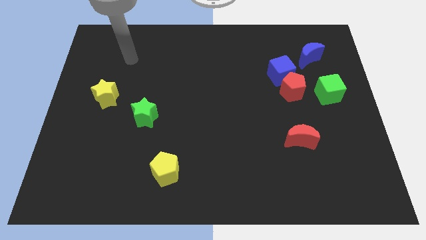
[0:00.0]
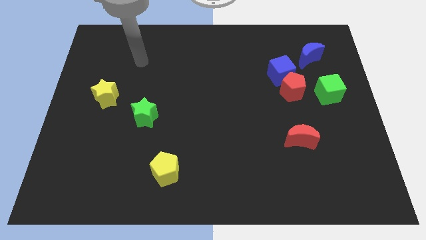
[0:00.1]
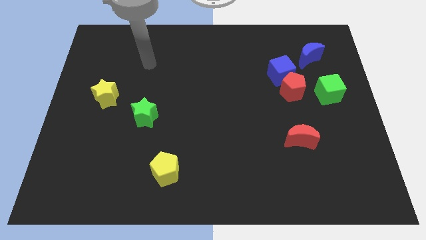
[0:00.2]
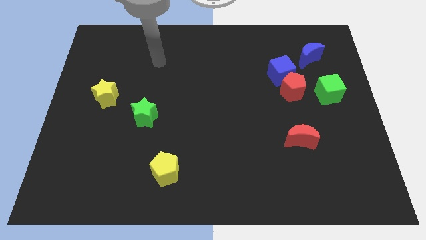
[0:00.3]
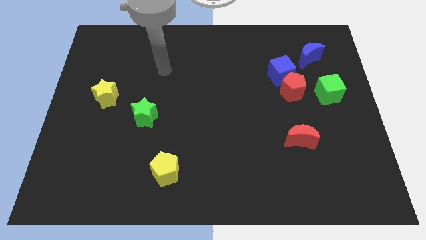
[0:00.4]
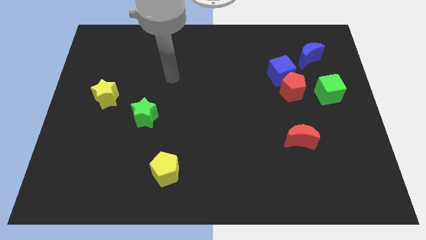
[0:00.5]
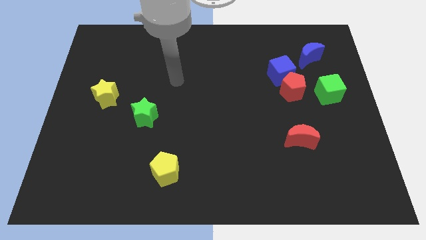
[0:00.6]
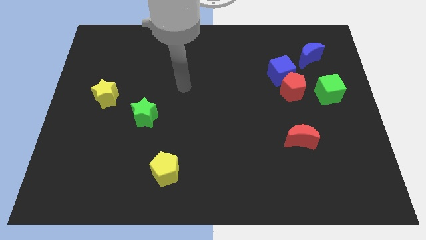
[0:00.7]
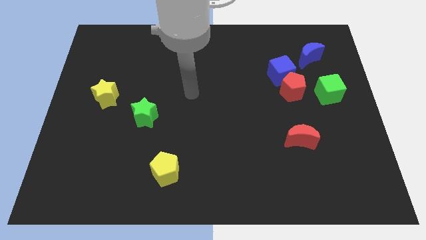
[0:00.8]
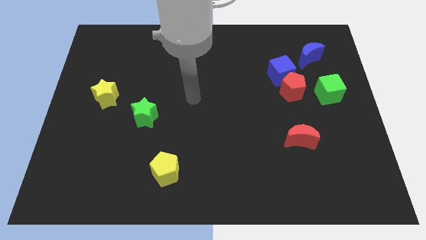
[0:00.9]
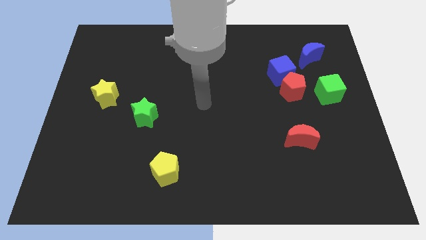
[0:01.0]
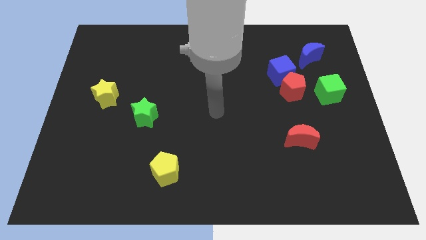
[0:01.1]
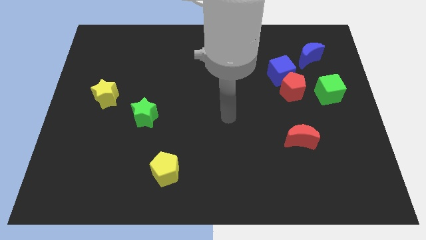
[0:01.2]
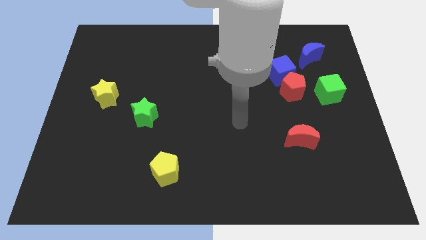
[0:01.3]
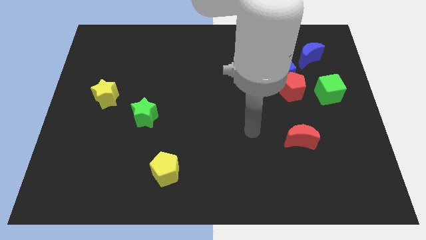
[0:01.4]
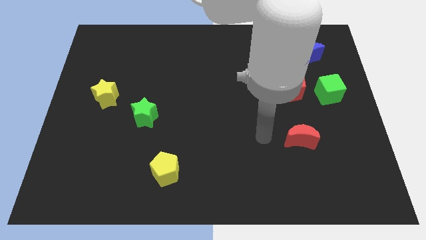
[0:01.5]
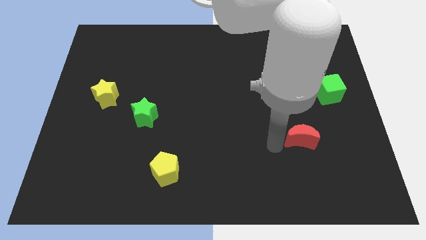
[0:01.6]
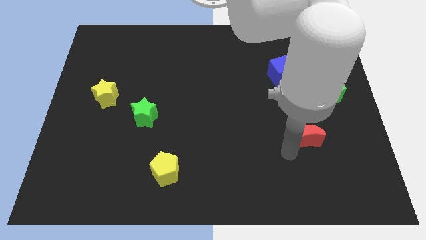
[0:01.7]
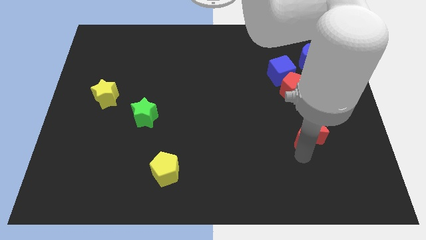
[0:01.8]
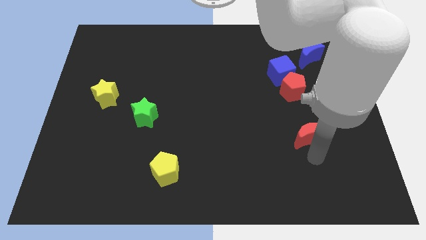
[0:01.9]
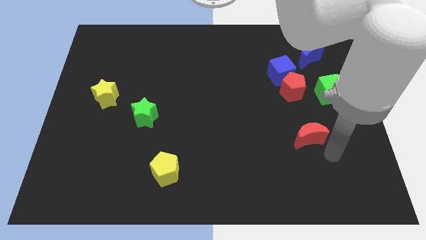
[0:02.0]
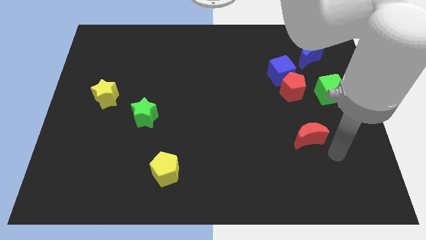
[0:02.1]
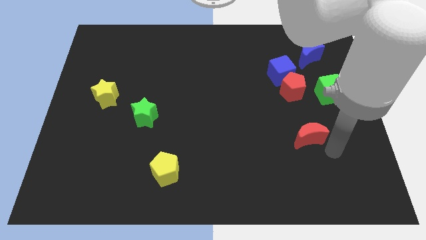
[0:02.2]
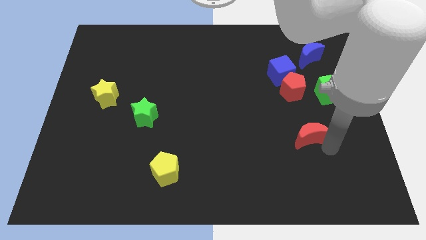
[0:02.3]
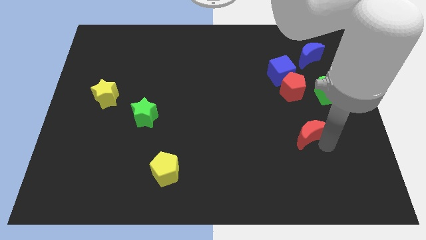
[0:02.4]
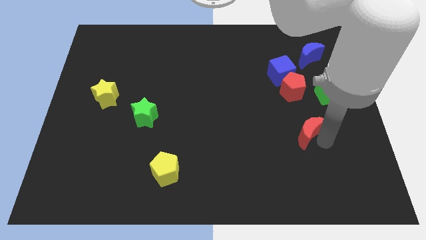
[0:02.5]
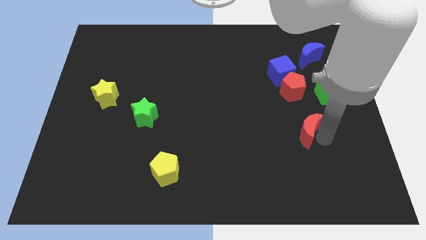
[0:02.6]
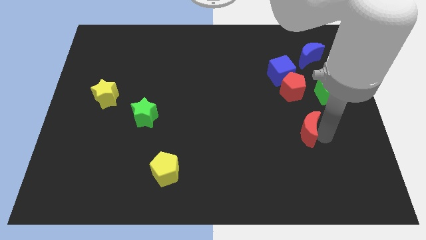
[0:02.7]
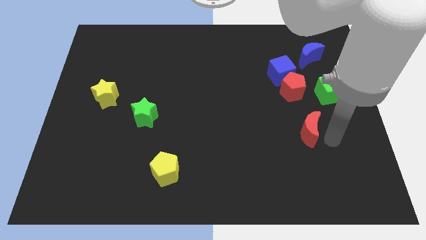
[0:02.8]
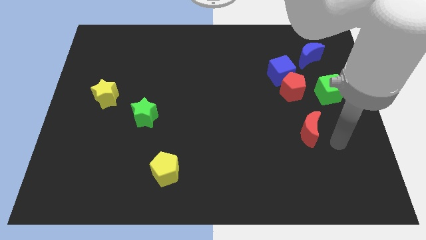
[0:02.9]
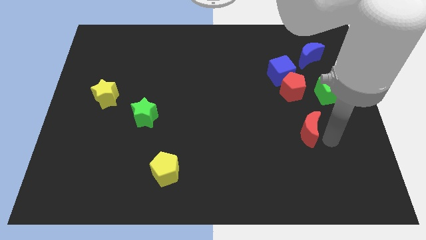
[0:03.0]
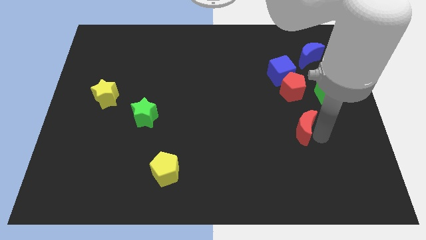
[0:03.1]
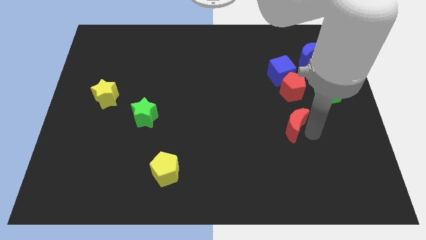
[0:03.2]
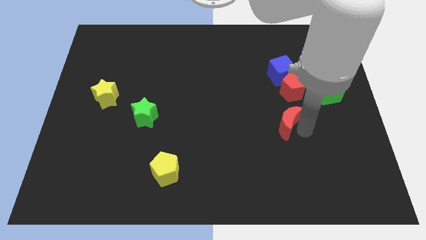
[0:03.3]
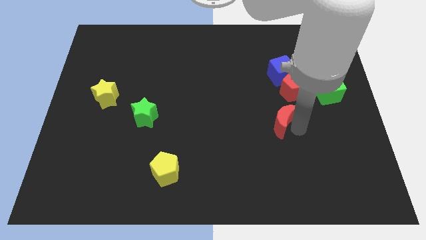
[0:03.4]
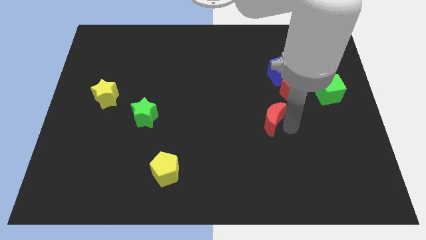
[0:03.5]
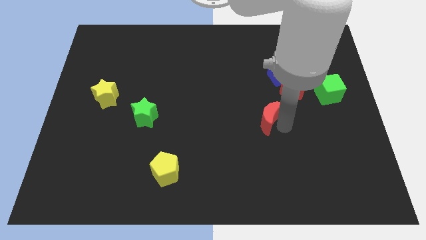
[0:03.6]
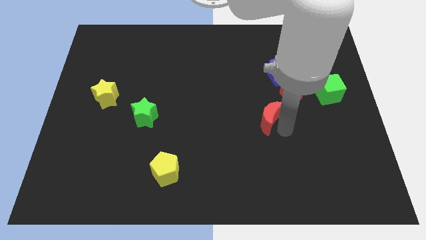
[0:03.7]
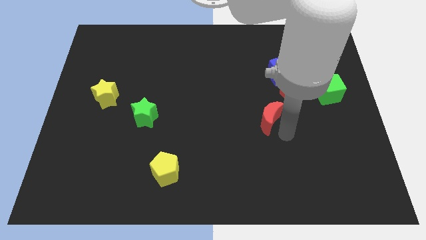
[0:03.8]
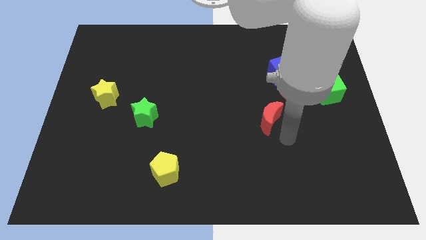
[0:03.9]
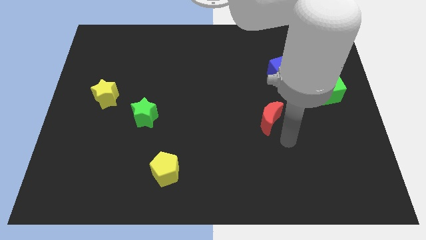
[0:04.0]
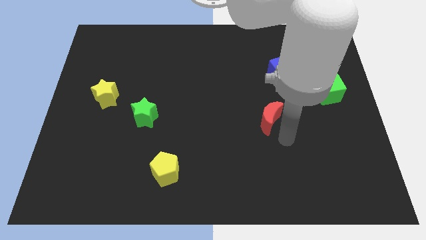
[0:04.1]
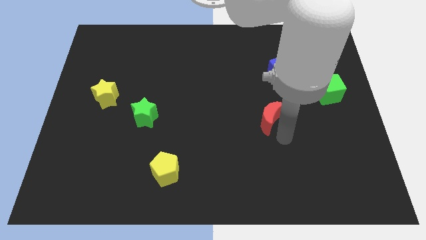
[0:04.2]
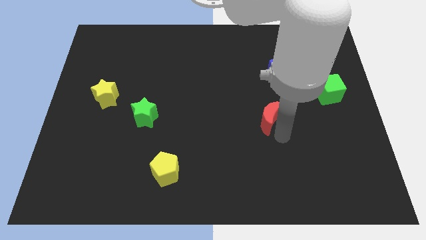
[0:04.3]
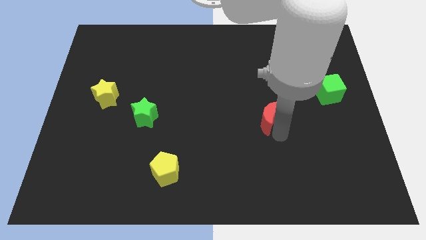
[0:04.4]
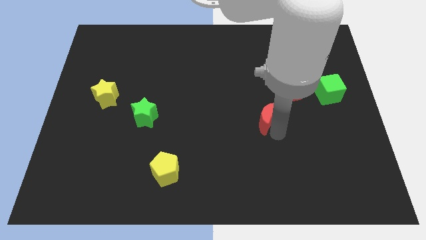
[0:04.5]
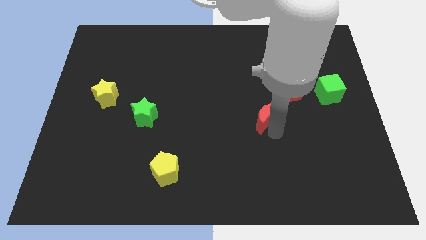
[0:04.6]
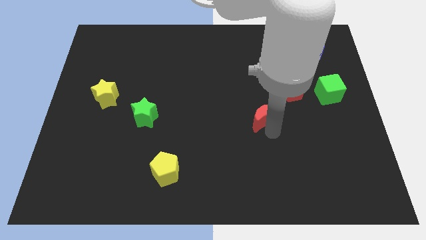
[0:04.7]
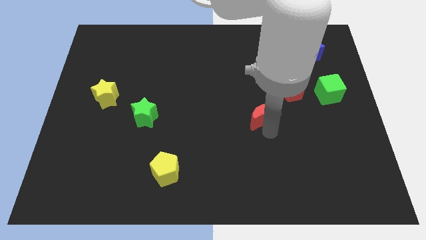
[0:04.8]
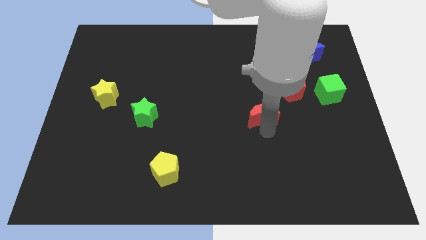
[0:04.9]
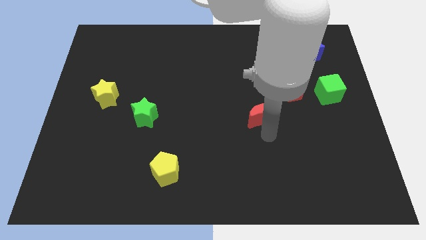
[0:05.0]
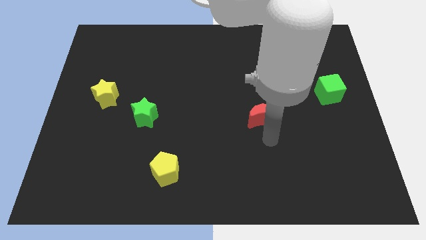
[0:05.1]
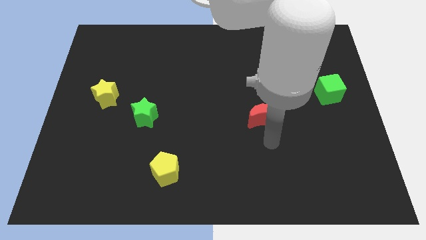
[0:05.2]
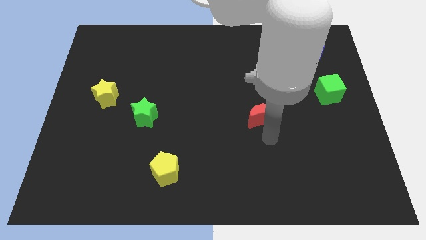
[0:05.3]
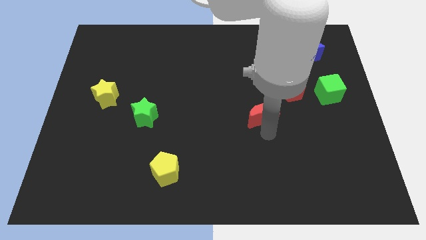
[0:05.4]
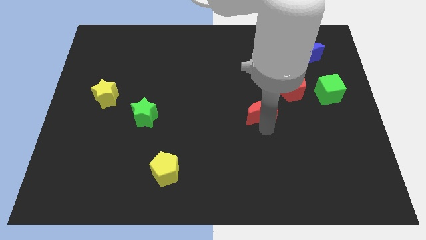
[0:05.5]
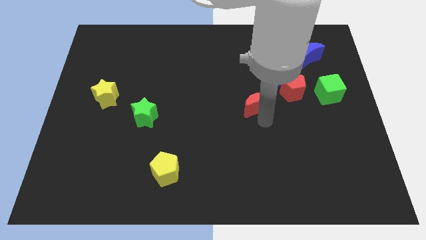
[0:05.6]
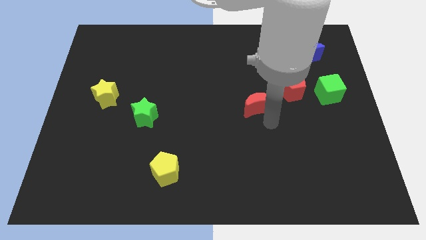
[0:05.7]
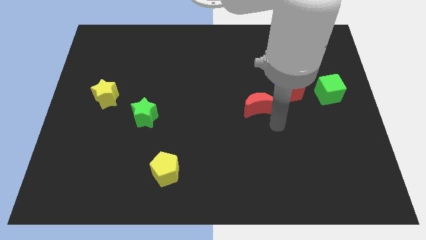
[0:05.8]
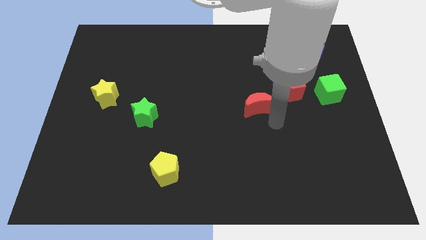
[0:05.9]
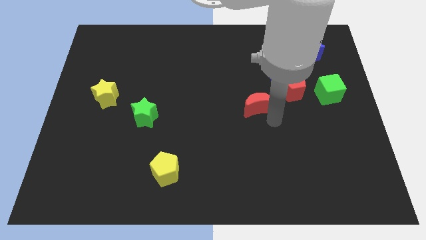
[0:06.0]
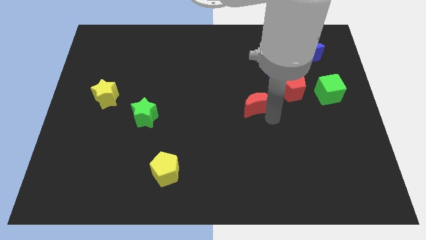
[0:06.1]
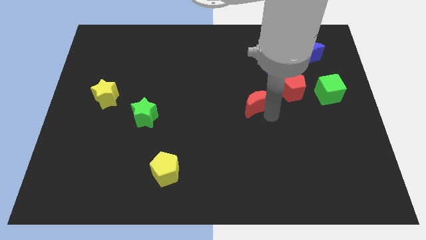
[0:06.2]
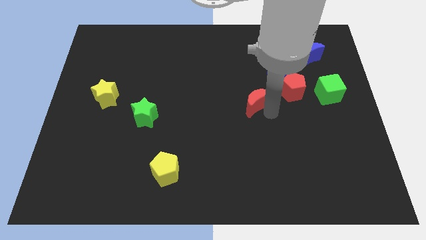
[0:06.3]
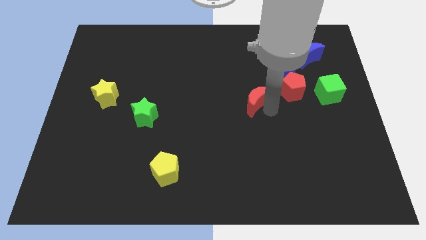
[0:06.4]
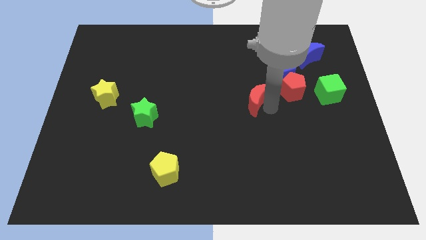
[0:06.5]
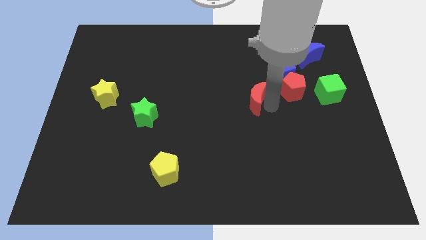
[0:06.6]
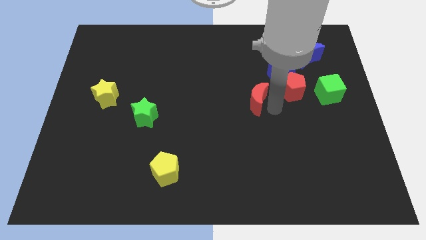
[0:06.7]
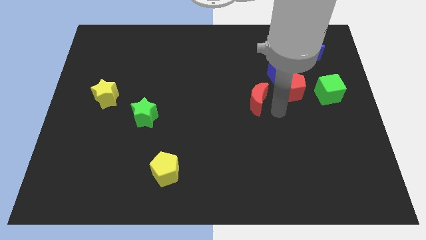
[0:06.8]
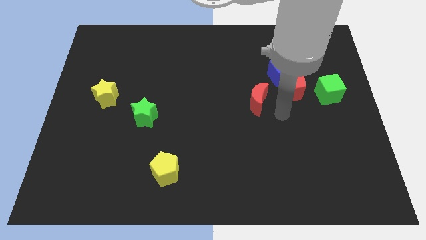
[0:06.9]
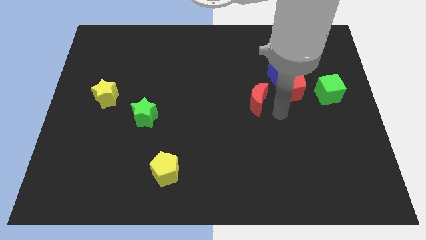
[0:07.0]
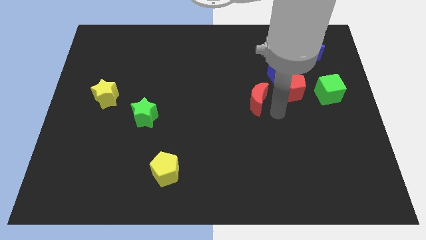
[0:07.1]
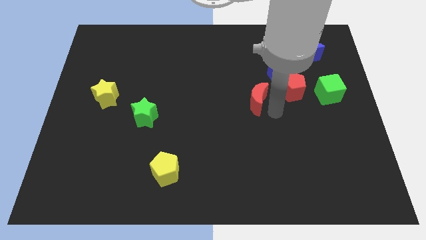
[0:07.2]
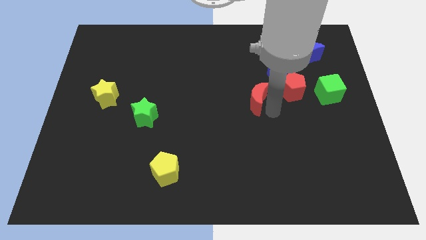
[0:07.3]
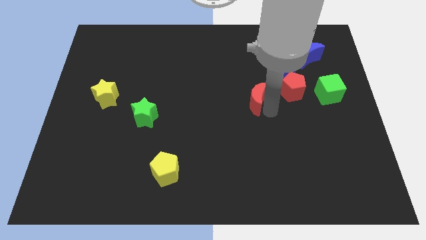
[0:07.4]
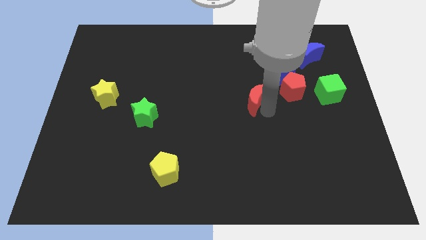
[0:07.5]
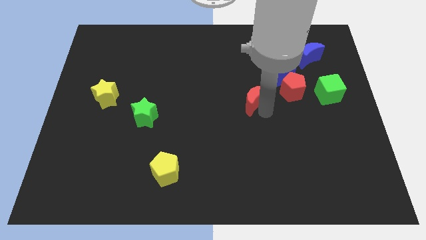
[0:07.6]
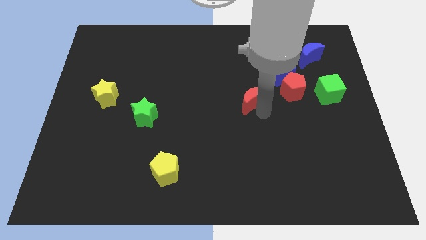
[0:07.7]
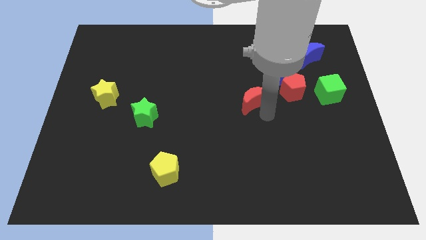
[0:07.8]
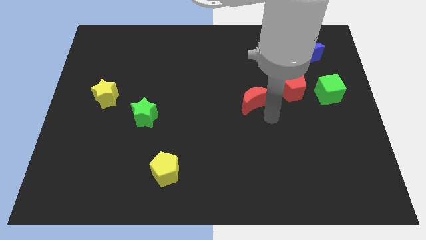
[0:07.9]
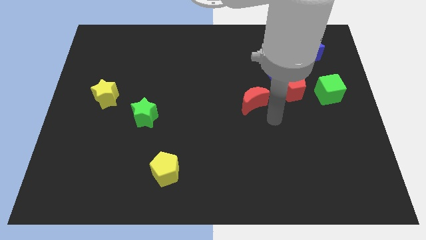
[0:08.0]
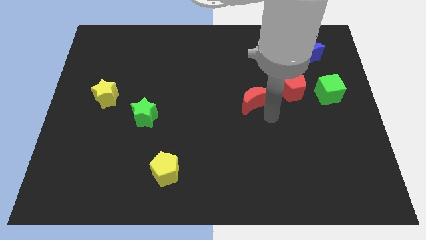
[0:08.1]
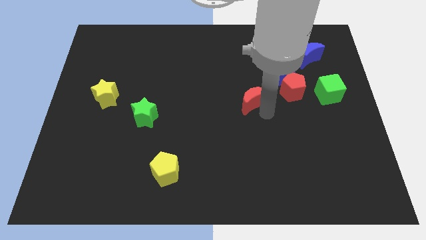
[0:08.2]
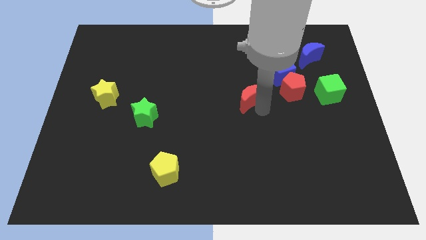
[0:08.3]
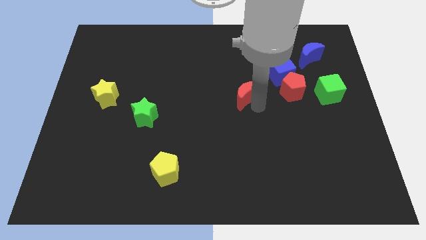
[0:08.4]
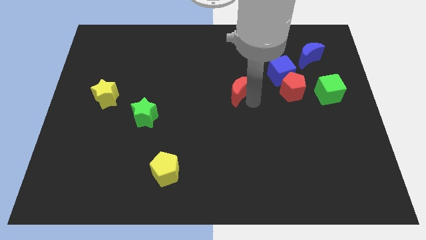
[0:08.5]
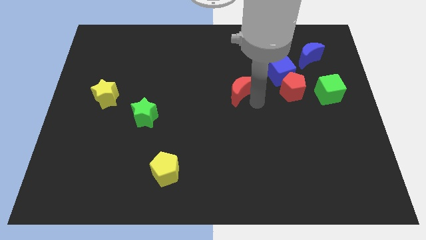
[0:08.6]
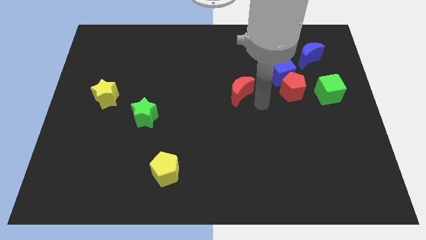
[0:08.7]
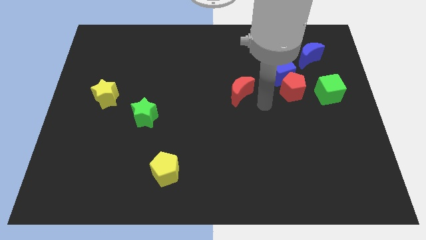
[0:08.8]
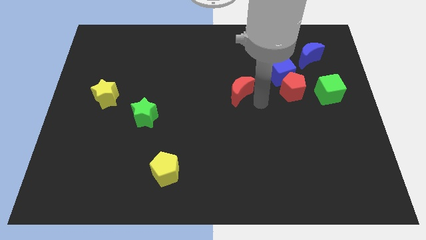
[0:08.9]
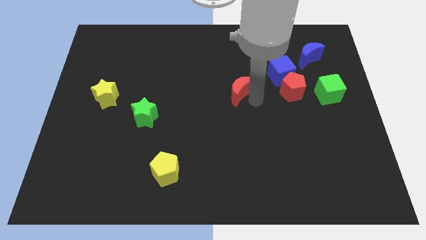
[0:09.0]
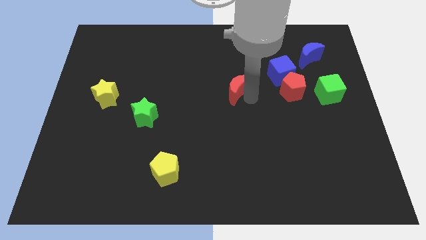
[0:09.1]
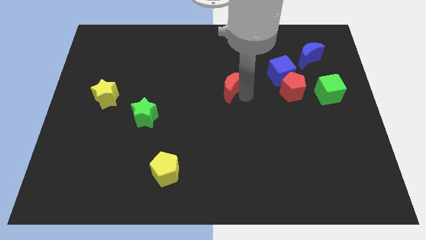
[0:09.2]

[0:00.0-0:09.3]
push the red moon up and to the left diagonally
